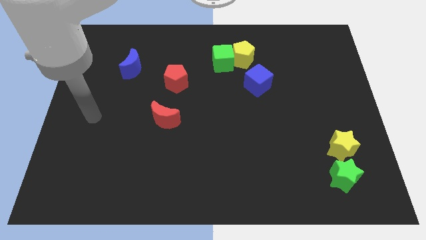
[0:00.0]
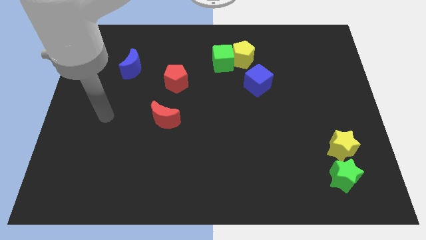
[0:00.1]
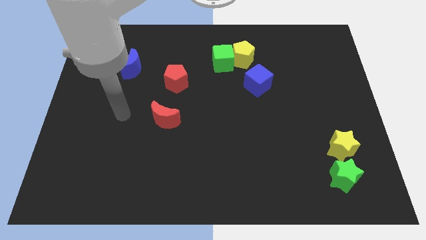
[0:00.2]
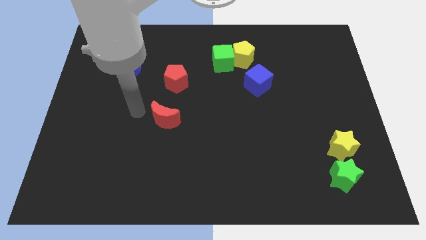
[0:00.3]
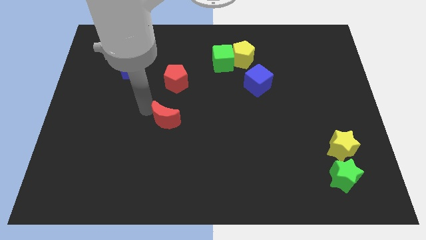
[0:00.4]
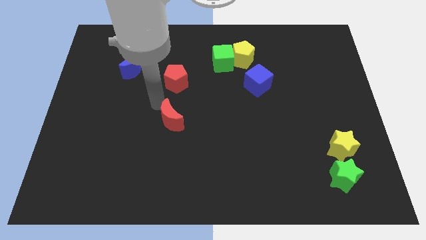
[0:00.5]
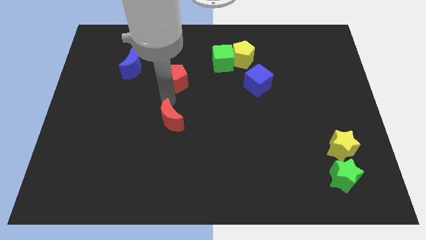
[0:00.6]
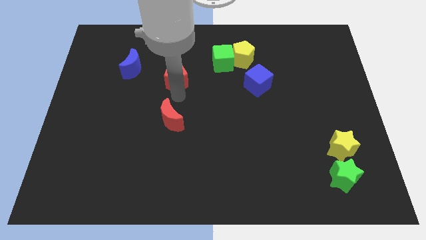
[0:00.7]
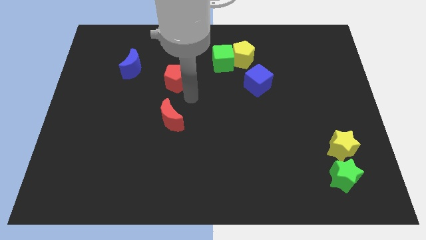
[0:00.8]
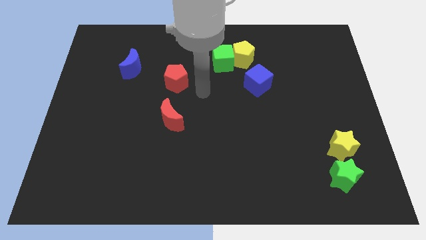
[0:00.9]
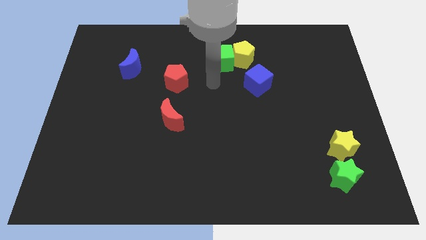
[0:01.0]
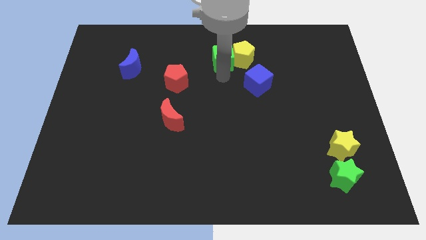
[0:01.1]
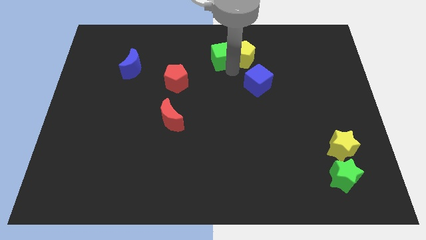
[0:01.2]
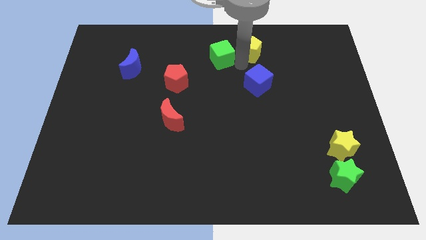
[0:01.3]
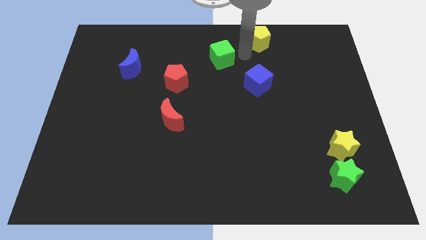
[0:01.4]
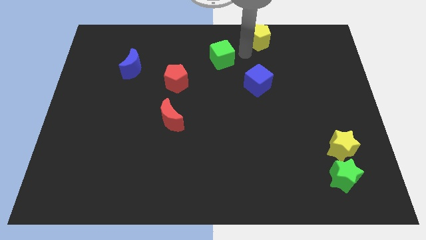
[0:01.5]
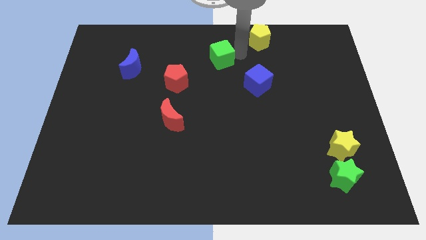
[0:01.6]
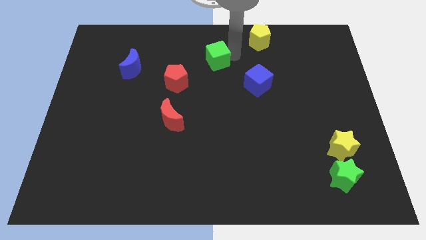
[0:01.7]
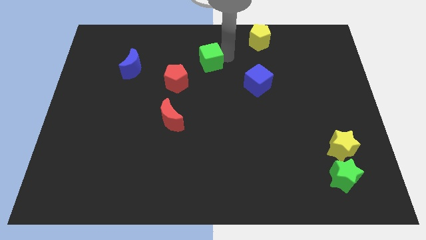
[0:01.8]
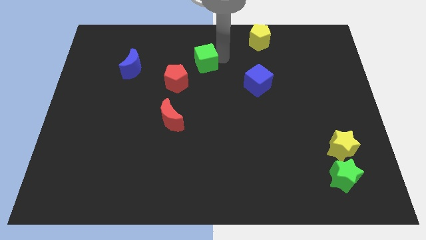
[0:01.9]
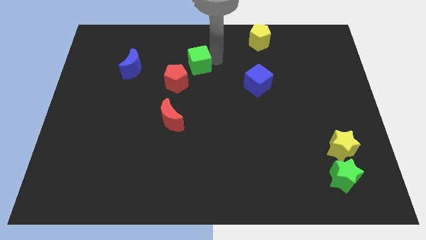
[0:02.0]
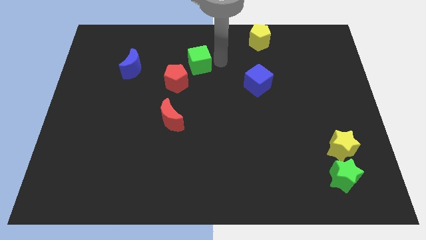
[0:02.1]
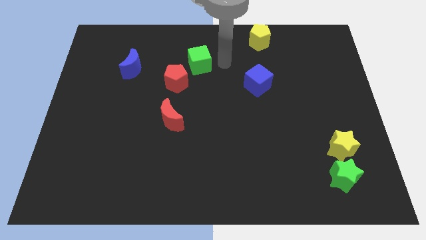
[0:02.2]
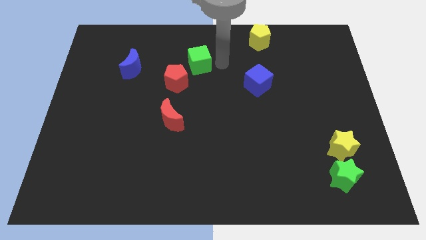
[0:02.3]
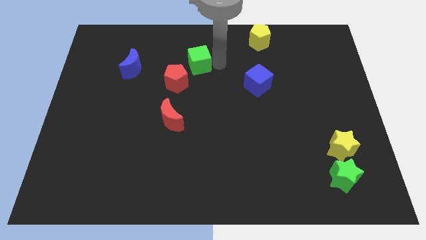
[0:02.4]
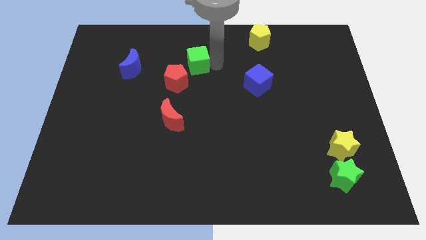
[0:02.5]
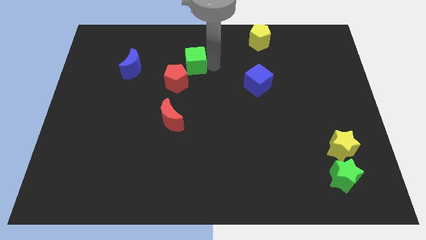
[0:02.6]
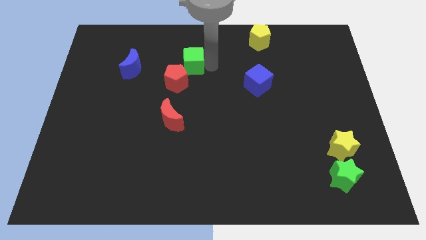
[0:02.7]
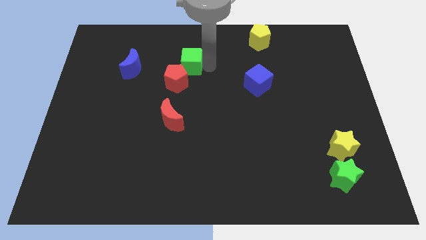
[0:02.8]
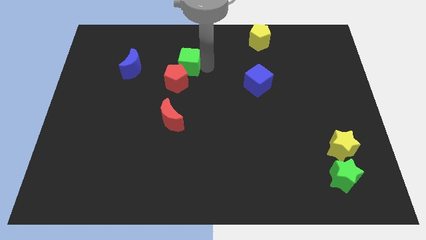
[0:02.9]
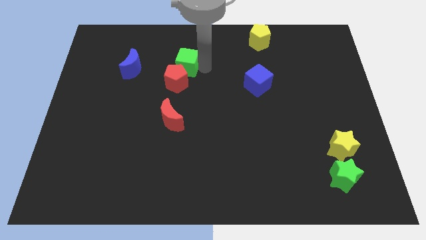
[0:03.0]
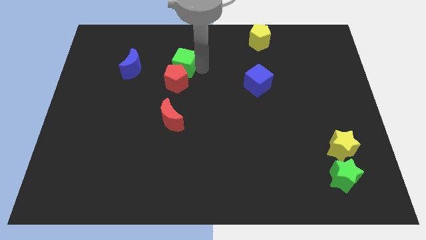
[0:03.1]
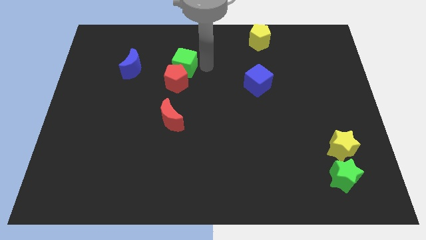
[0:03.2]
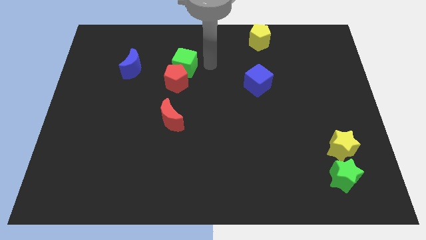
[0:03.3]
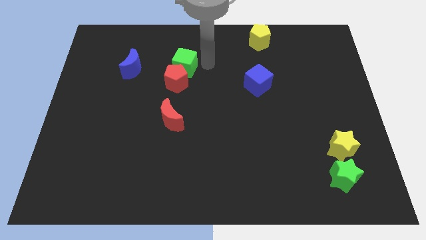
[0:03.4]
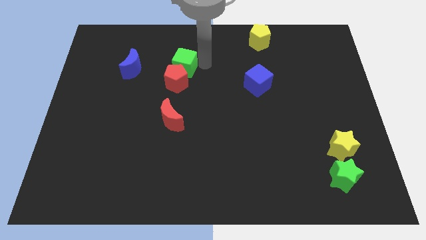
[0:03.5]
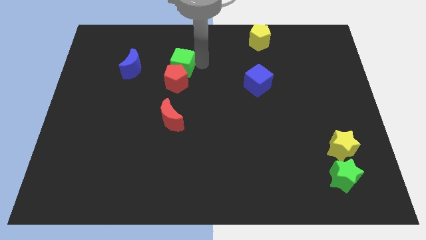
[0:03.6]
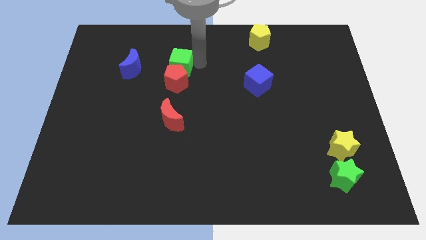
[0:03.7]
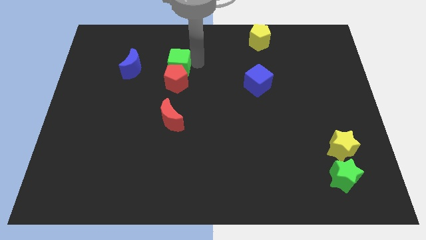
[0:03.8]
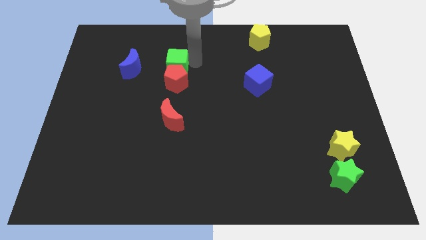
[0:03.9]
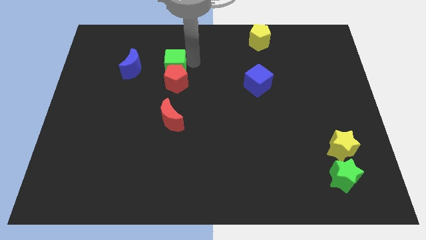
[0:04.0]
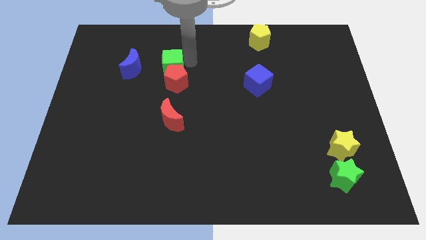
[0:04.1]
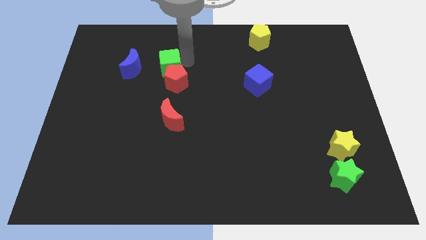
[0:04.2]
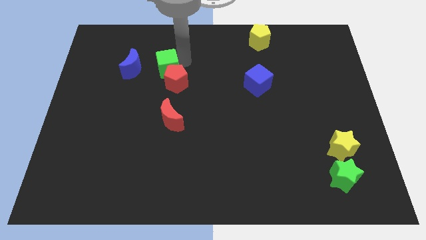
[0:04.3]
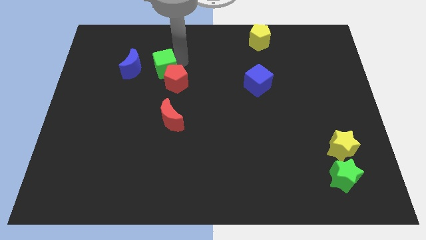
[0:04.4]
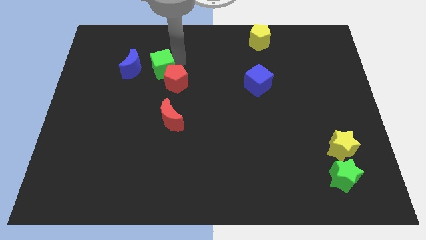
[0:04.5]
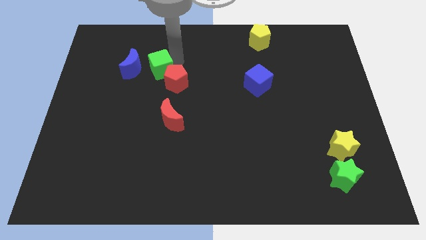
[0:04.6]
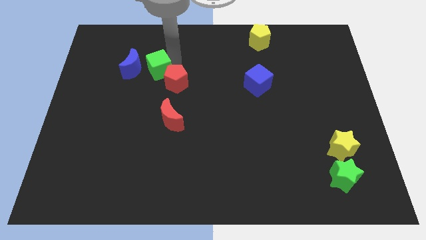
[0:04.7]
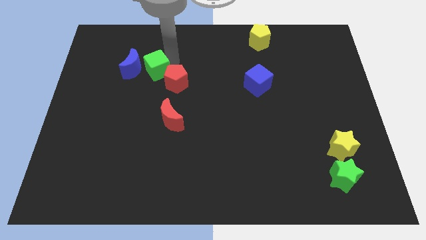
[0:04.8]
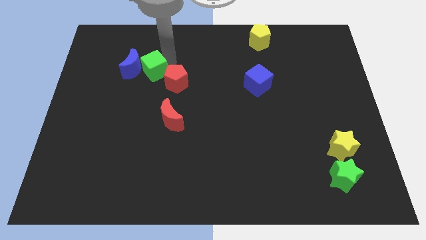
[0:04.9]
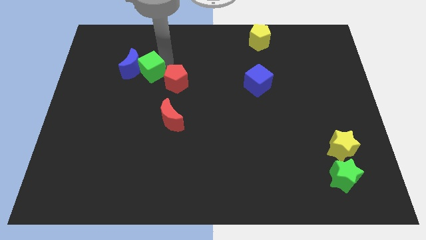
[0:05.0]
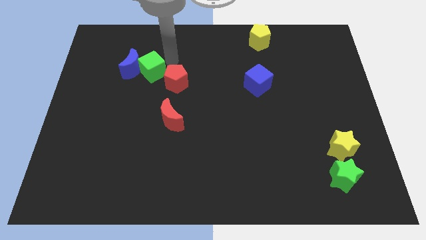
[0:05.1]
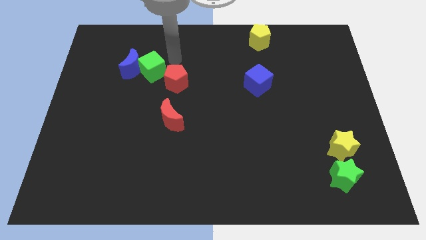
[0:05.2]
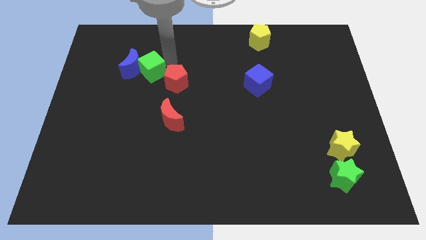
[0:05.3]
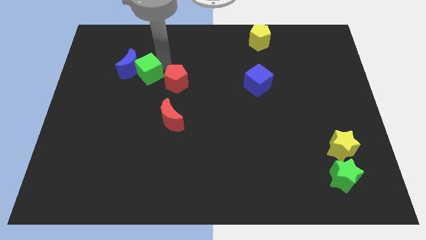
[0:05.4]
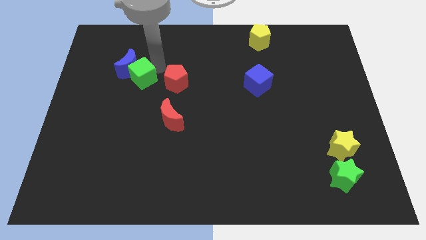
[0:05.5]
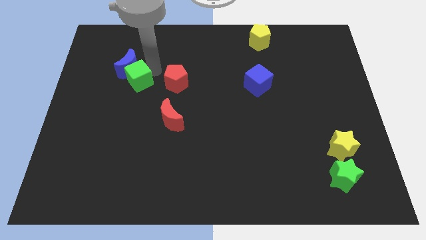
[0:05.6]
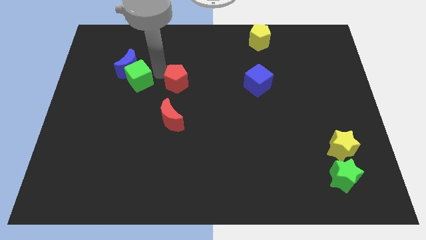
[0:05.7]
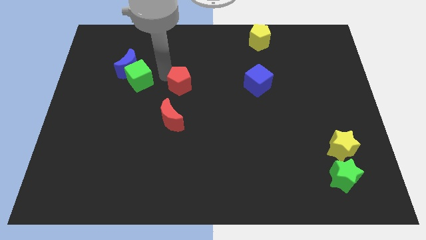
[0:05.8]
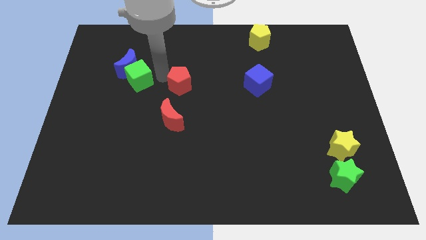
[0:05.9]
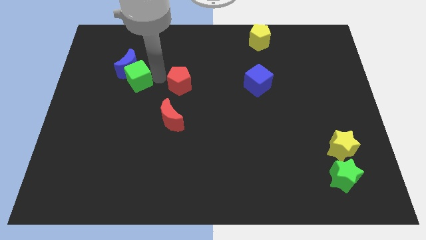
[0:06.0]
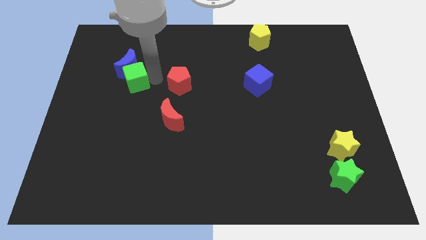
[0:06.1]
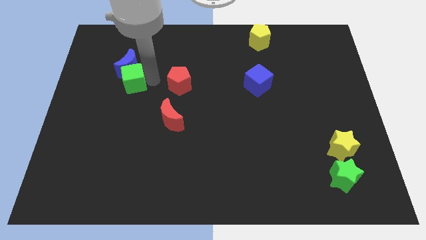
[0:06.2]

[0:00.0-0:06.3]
put the green cube to the bottom left side of the blue moon

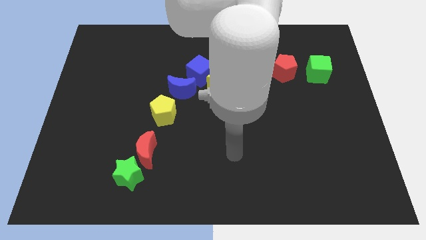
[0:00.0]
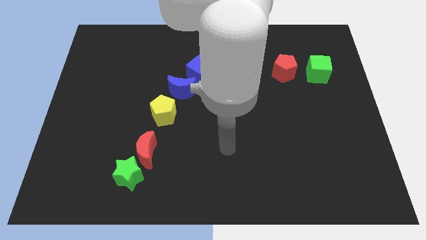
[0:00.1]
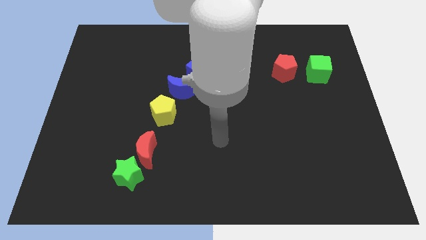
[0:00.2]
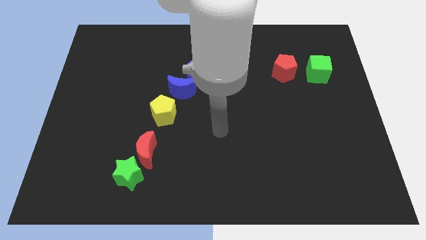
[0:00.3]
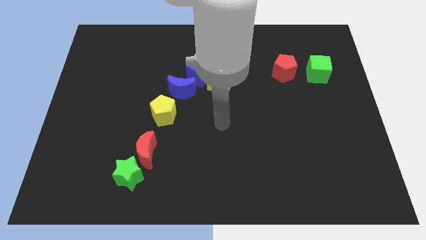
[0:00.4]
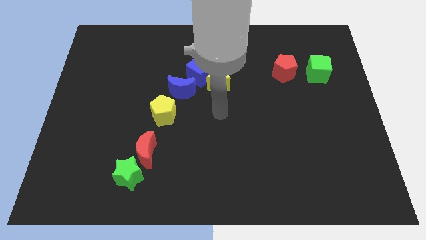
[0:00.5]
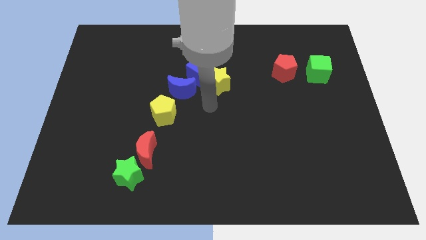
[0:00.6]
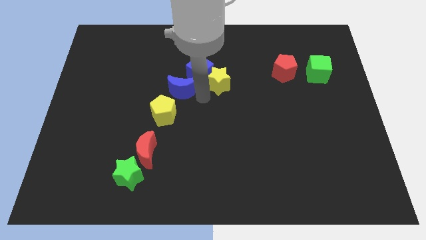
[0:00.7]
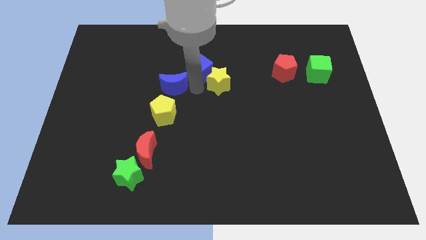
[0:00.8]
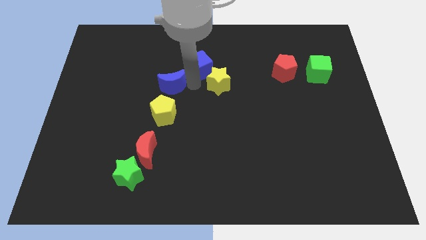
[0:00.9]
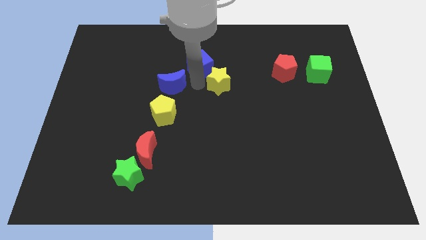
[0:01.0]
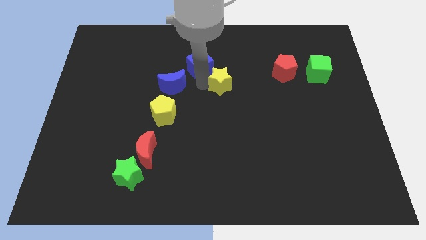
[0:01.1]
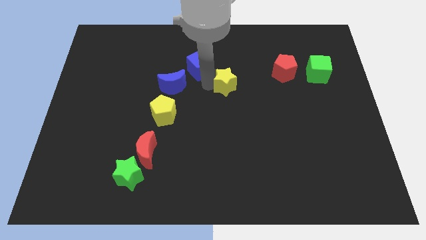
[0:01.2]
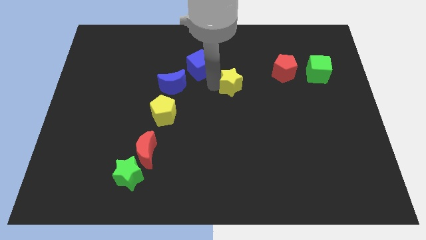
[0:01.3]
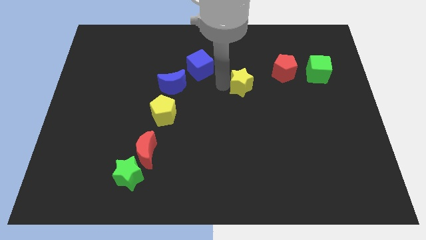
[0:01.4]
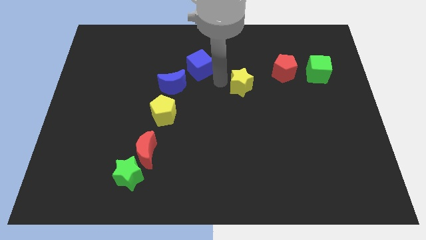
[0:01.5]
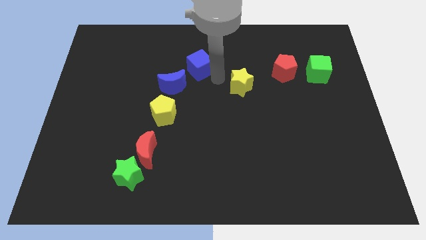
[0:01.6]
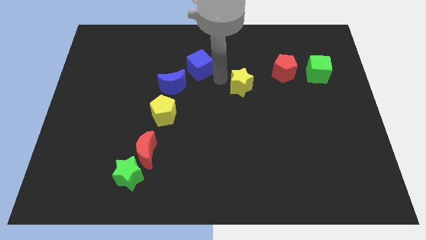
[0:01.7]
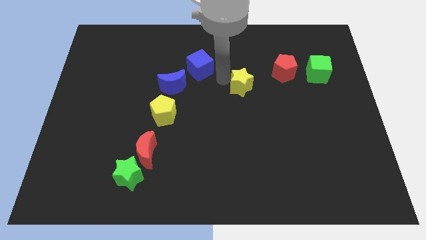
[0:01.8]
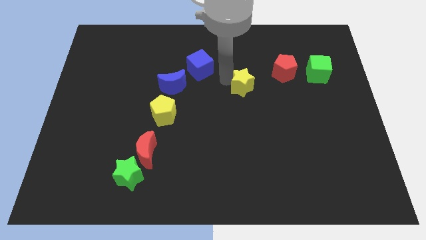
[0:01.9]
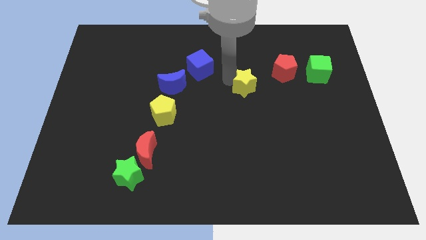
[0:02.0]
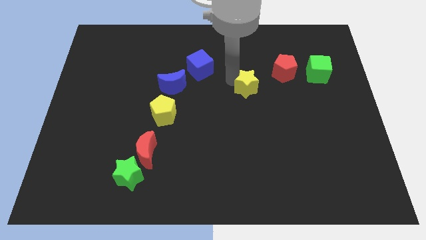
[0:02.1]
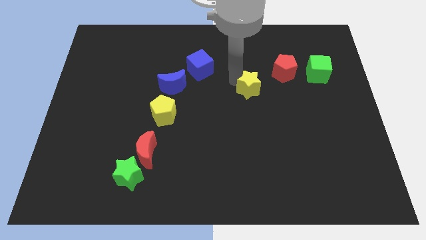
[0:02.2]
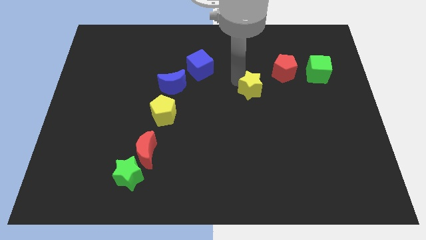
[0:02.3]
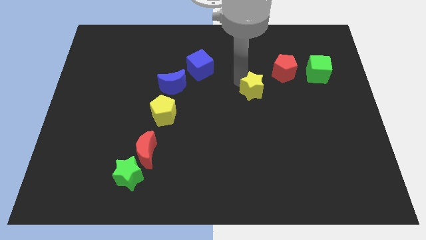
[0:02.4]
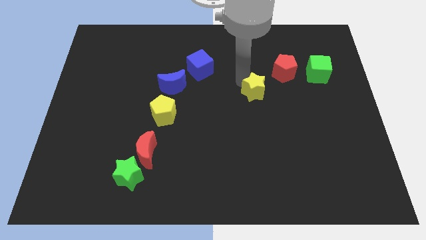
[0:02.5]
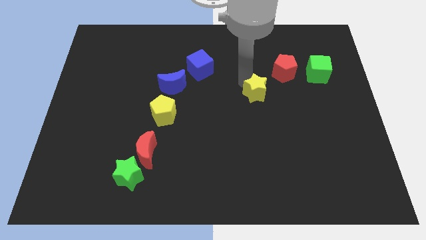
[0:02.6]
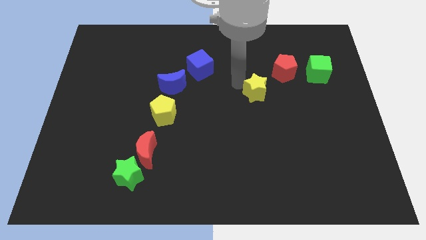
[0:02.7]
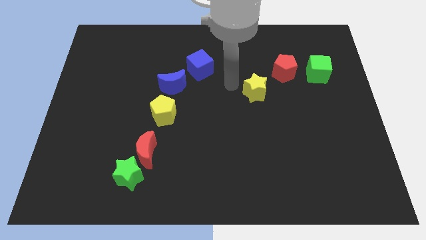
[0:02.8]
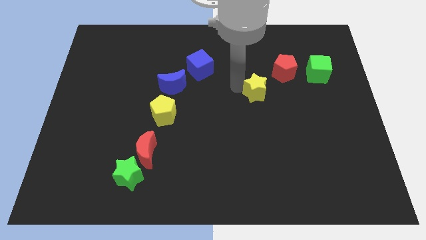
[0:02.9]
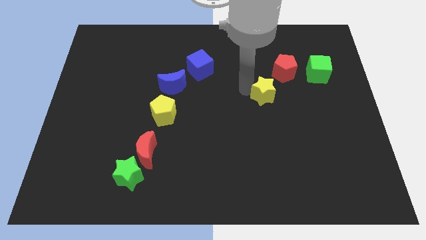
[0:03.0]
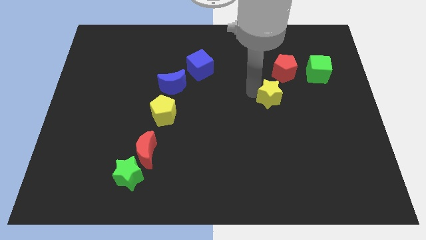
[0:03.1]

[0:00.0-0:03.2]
push the yellow star to the bottom of the red pentagon
